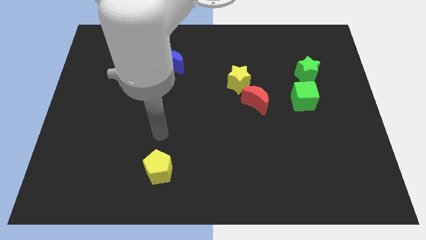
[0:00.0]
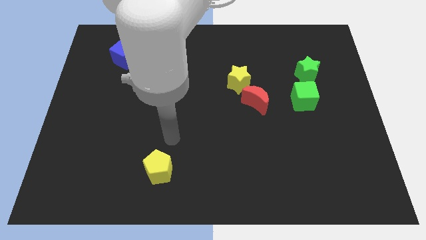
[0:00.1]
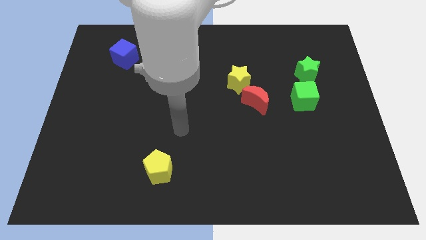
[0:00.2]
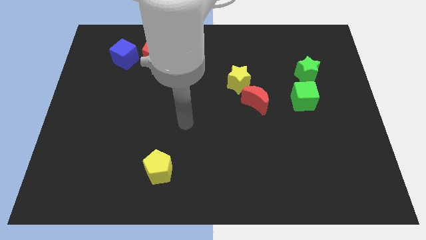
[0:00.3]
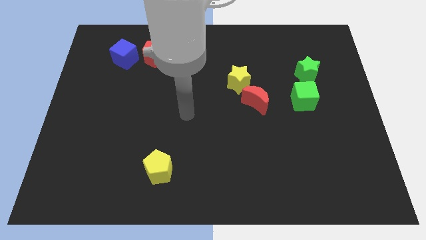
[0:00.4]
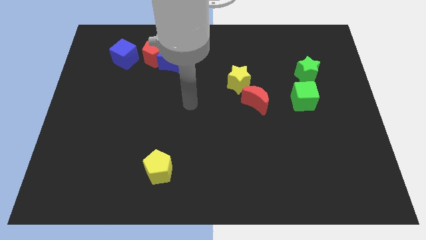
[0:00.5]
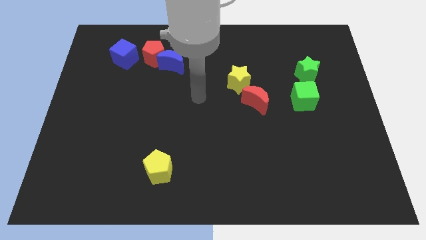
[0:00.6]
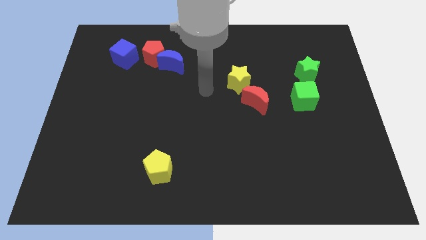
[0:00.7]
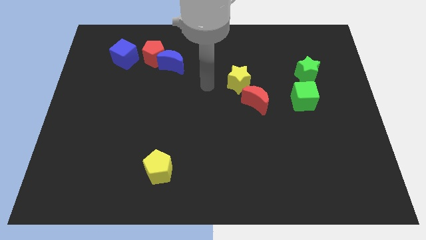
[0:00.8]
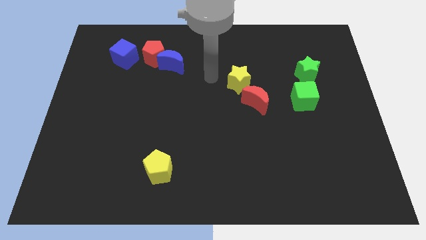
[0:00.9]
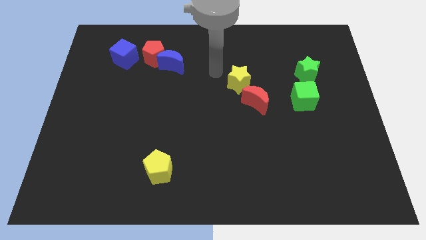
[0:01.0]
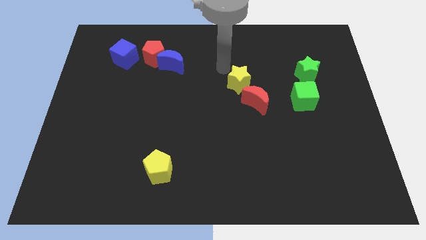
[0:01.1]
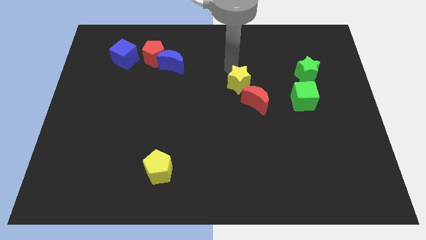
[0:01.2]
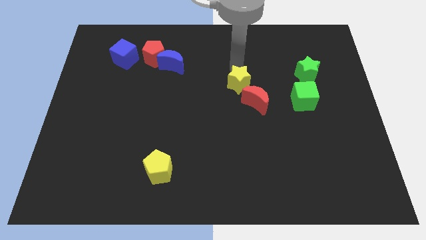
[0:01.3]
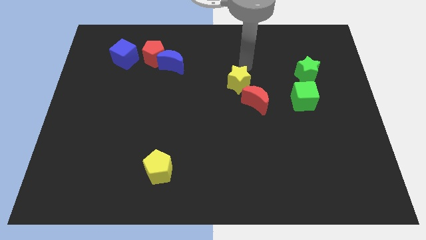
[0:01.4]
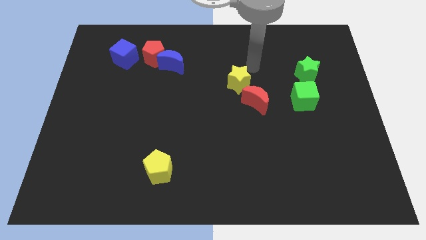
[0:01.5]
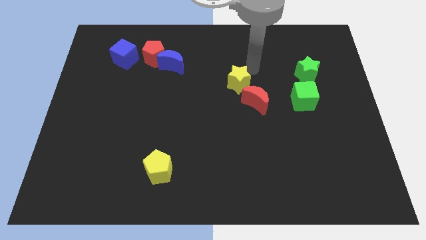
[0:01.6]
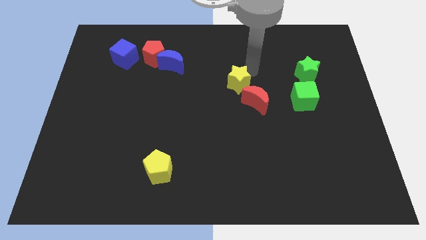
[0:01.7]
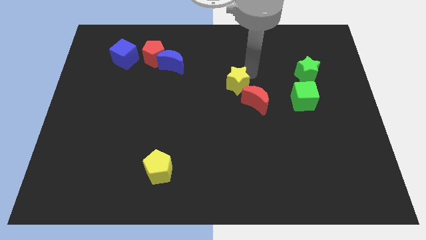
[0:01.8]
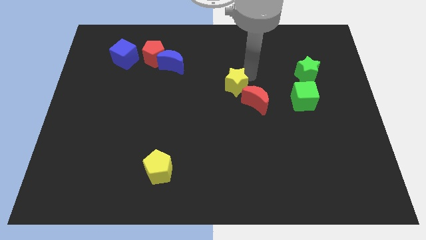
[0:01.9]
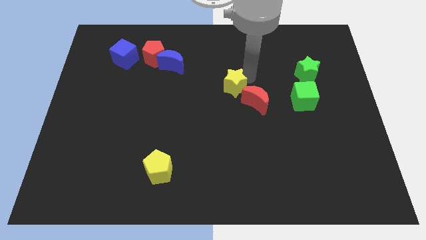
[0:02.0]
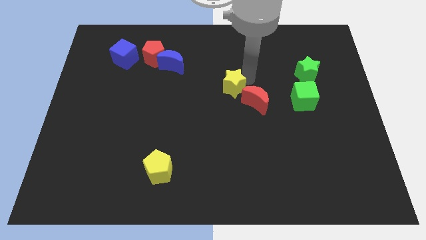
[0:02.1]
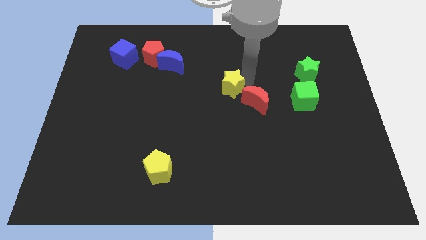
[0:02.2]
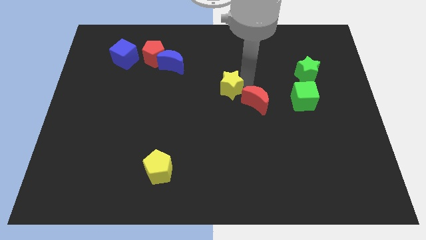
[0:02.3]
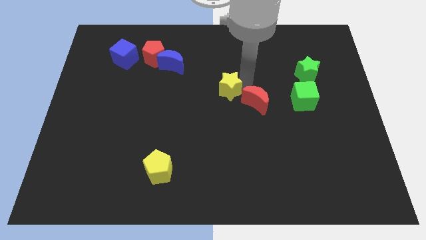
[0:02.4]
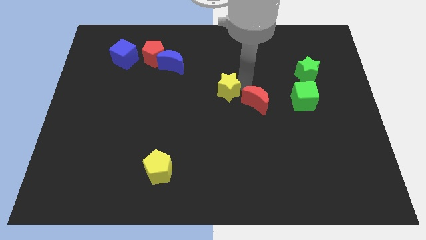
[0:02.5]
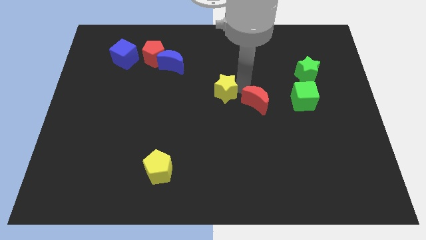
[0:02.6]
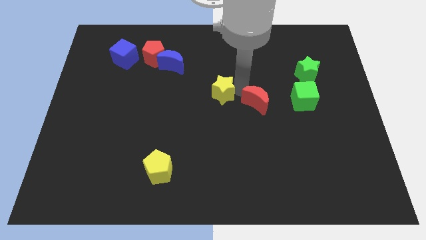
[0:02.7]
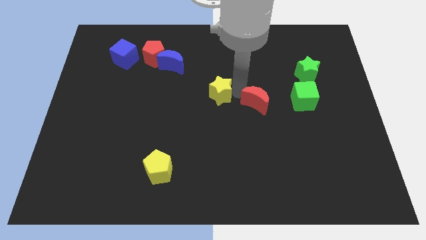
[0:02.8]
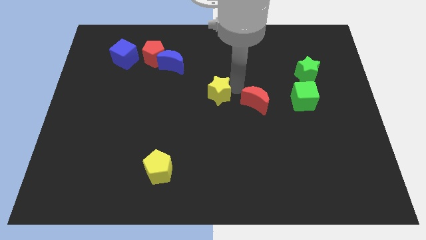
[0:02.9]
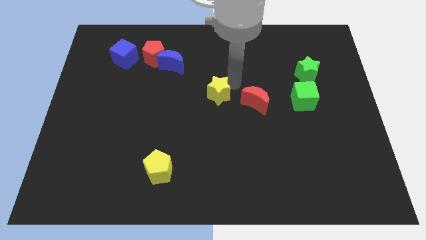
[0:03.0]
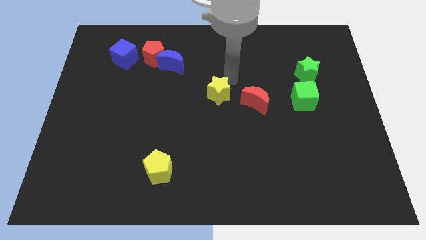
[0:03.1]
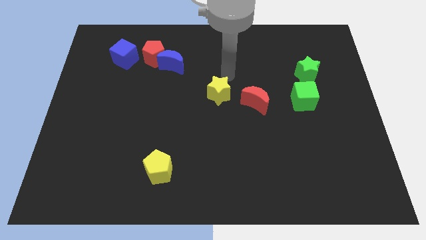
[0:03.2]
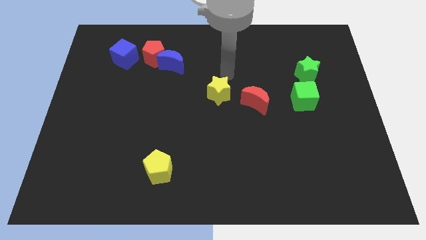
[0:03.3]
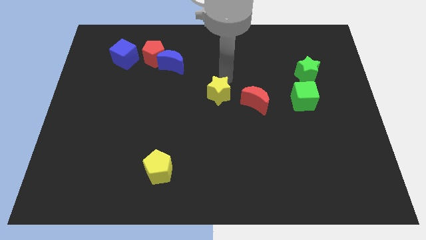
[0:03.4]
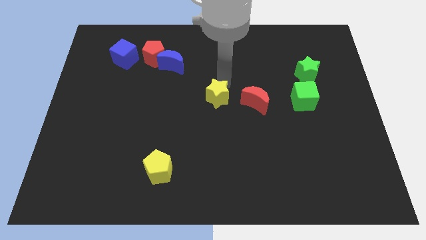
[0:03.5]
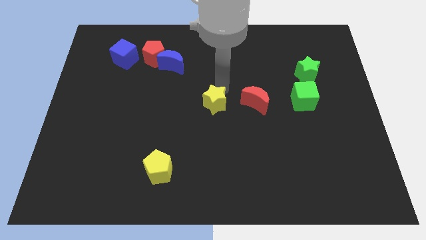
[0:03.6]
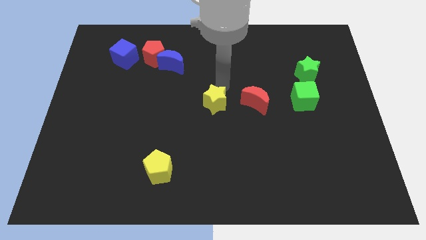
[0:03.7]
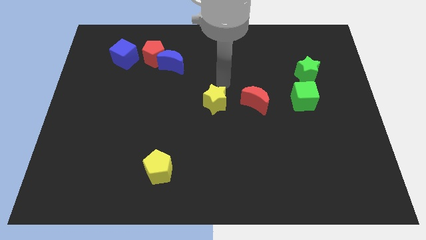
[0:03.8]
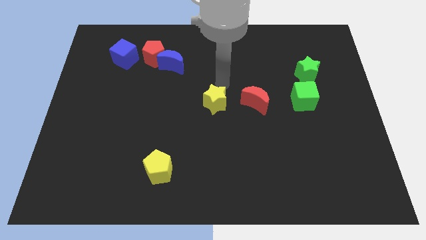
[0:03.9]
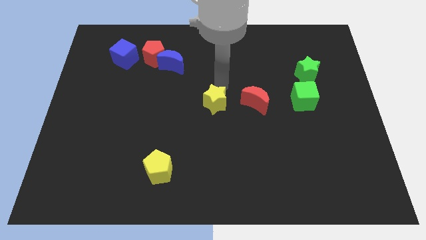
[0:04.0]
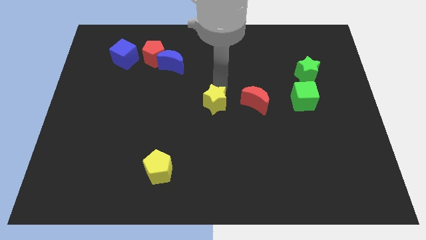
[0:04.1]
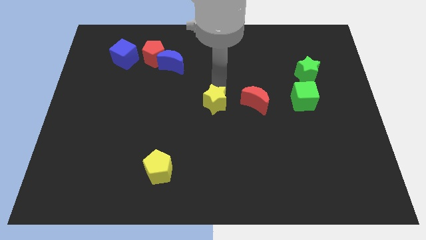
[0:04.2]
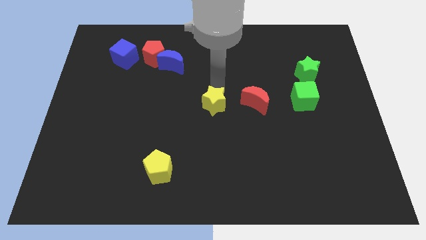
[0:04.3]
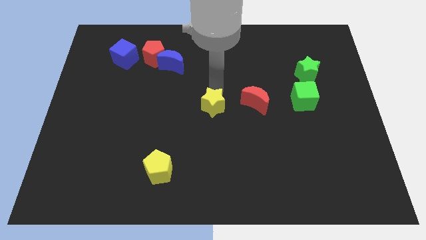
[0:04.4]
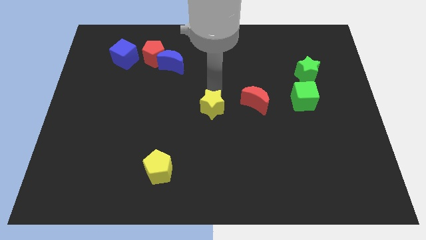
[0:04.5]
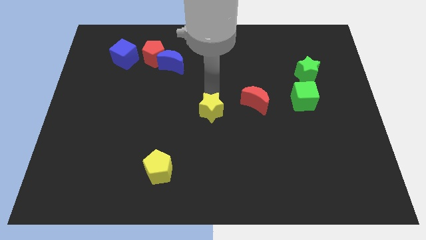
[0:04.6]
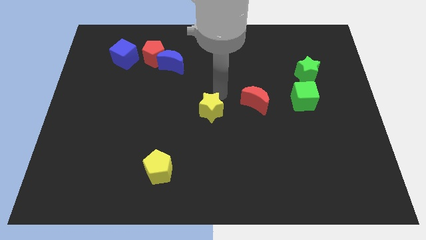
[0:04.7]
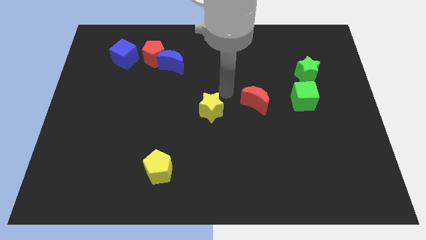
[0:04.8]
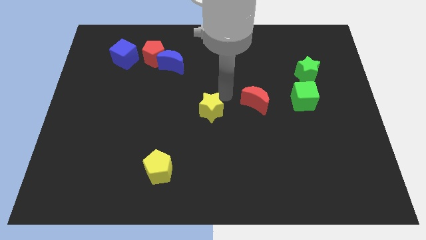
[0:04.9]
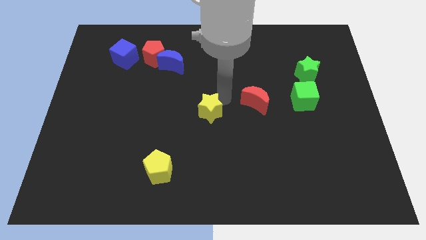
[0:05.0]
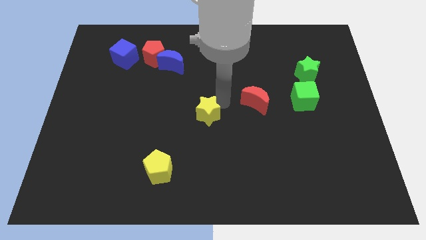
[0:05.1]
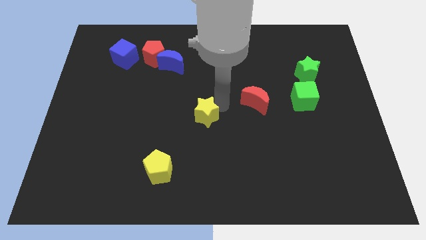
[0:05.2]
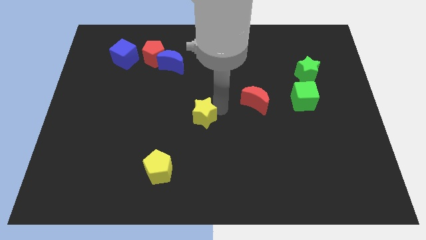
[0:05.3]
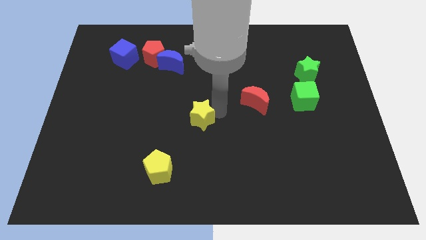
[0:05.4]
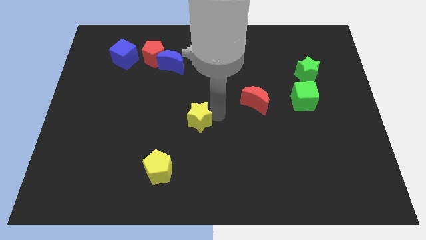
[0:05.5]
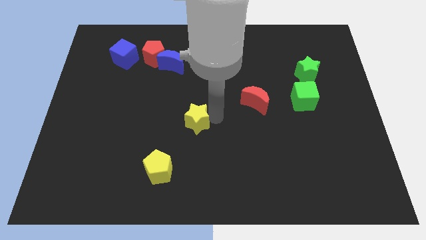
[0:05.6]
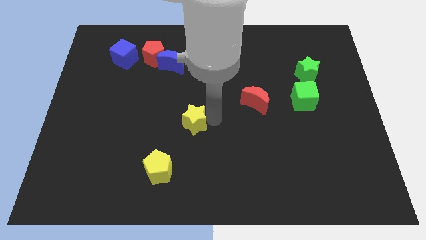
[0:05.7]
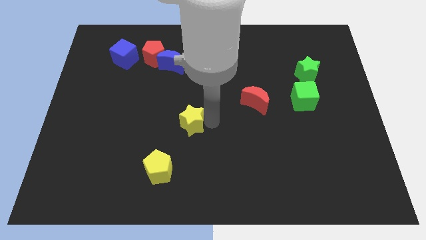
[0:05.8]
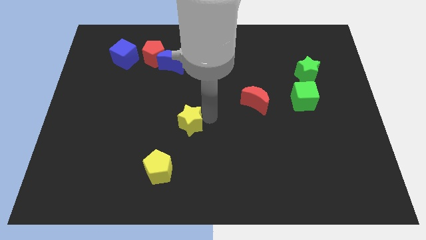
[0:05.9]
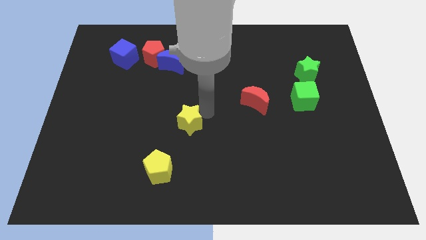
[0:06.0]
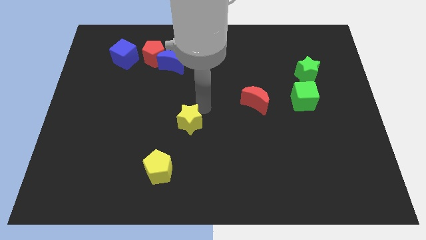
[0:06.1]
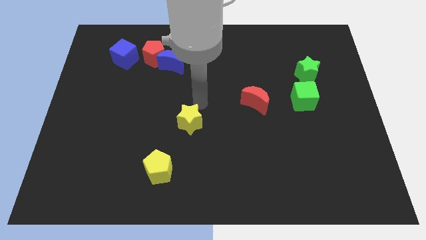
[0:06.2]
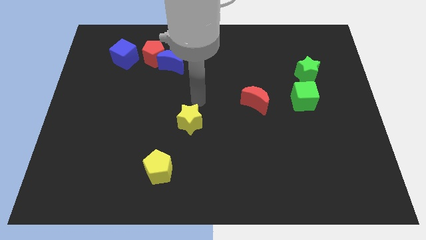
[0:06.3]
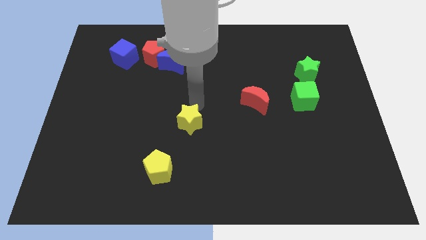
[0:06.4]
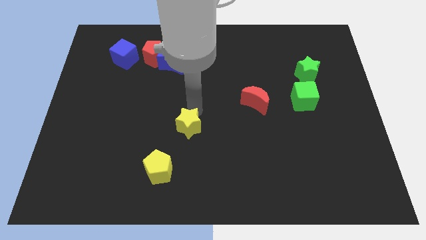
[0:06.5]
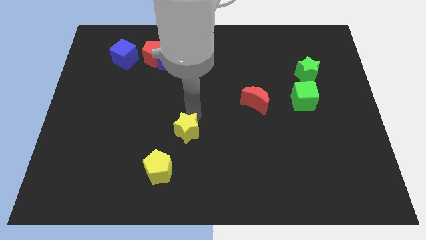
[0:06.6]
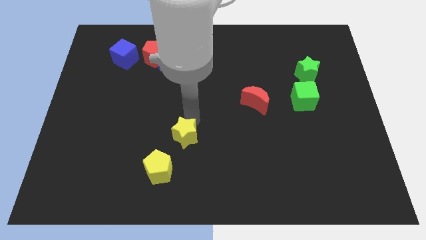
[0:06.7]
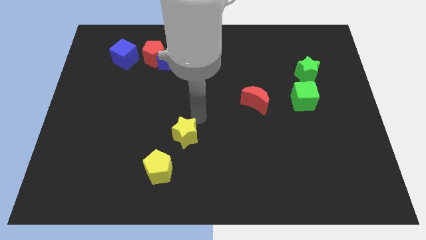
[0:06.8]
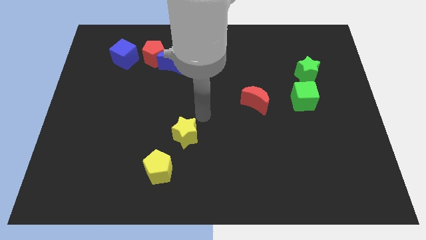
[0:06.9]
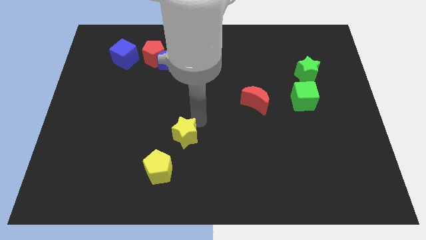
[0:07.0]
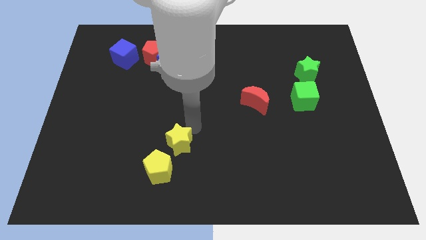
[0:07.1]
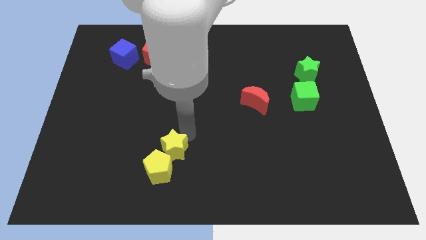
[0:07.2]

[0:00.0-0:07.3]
slide the yellow star close to the yellow pentagon

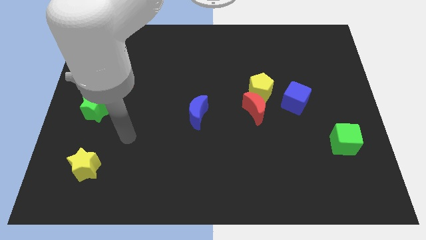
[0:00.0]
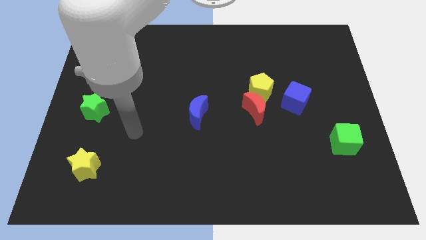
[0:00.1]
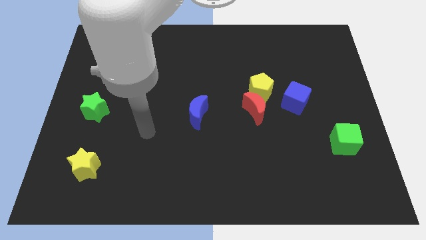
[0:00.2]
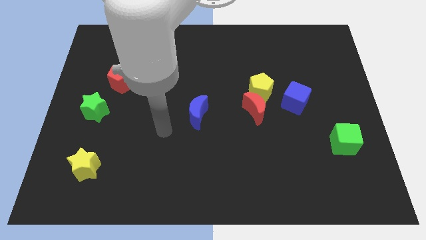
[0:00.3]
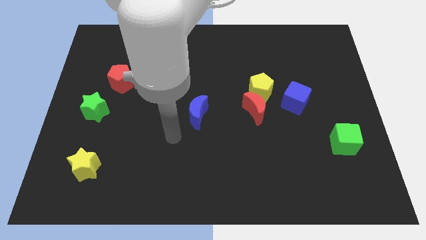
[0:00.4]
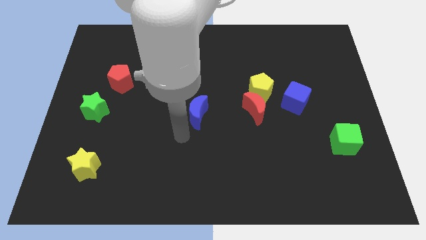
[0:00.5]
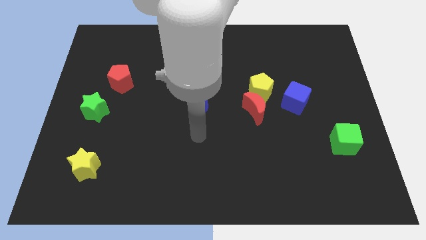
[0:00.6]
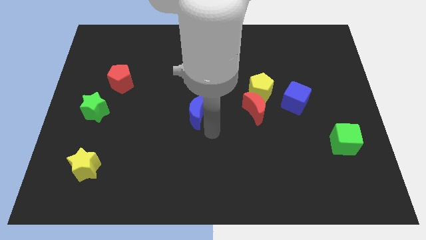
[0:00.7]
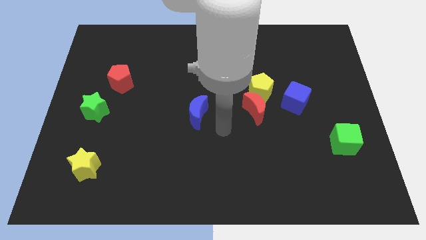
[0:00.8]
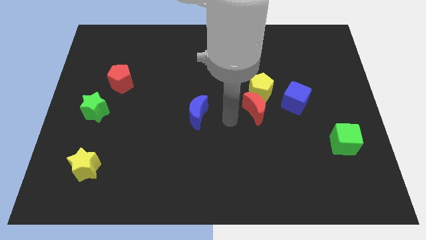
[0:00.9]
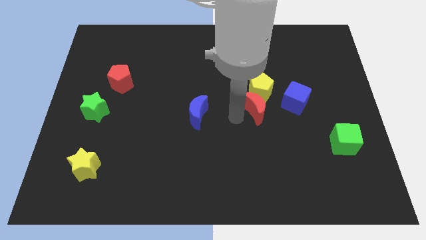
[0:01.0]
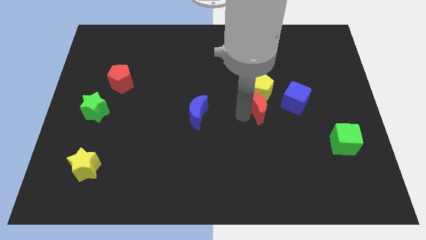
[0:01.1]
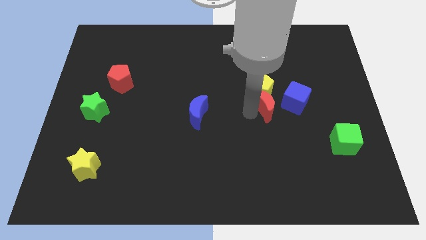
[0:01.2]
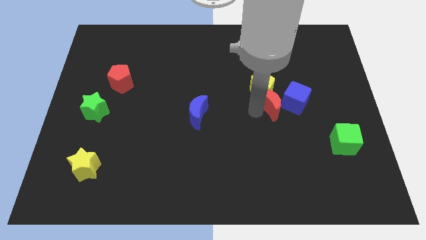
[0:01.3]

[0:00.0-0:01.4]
slide the red moon close to the blue cube
